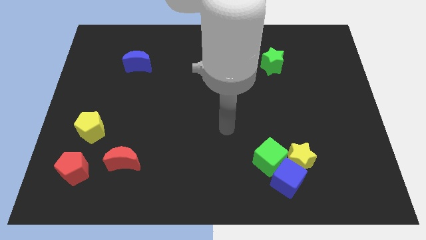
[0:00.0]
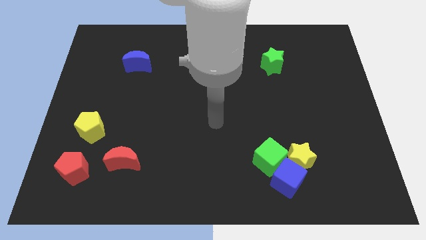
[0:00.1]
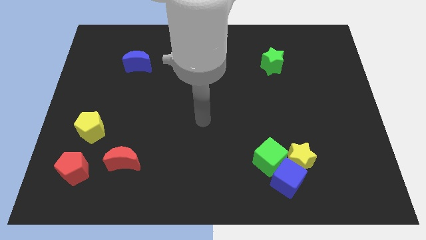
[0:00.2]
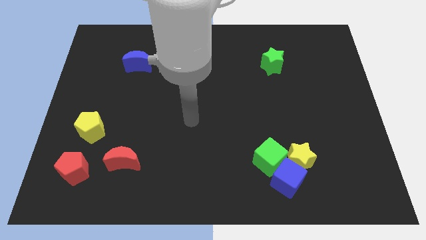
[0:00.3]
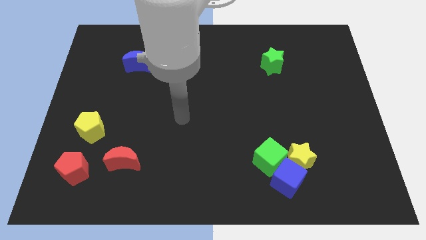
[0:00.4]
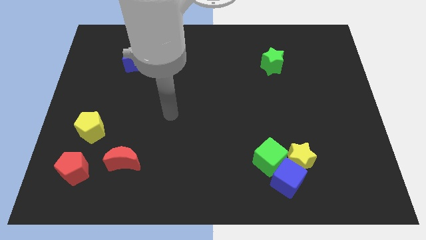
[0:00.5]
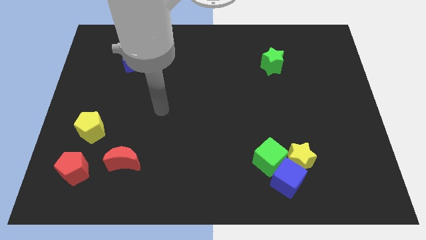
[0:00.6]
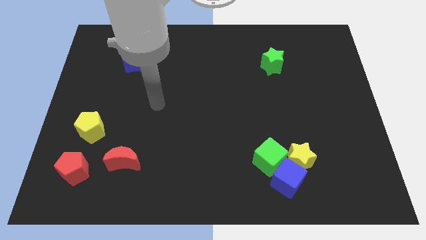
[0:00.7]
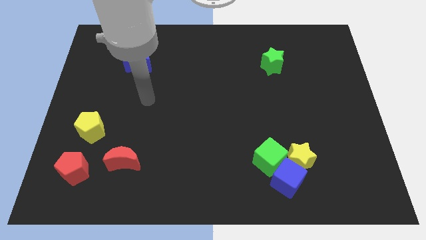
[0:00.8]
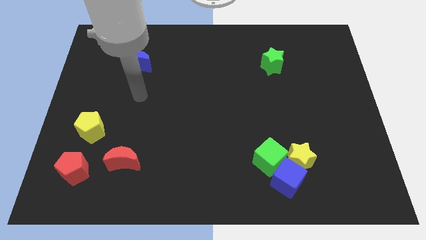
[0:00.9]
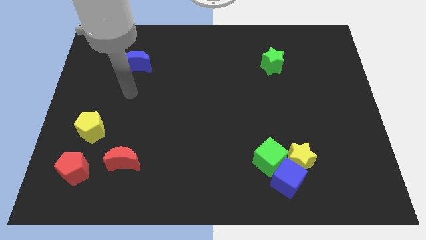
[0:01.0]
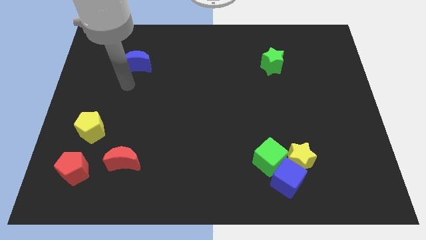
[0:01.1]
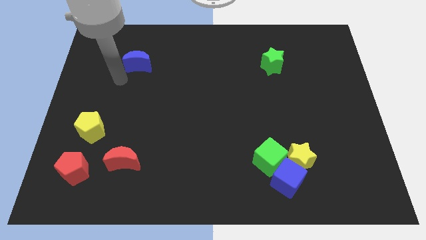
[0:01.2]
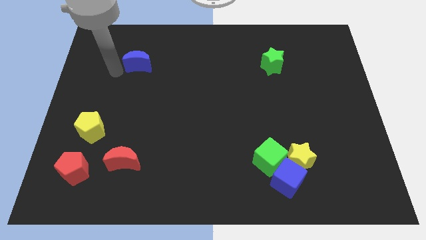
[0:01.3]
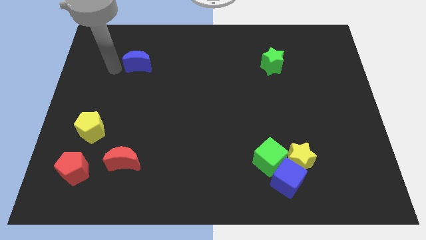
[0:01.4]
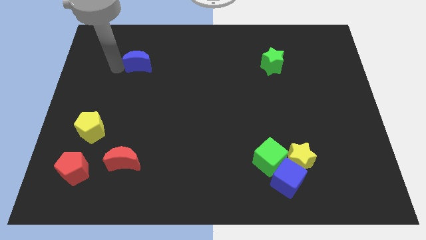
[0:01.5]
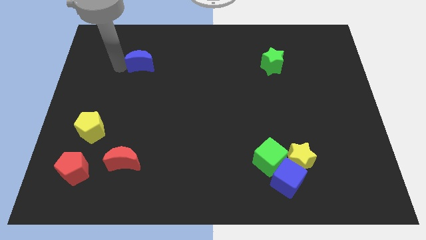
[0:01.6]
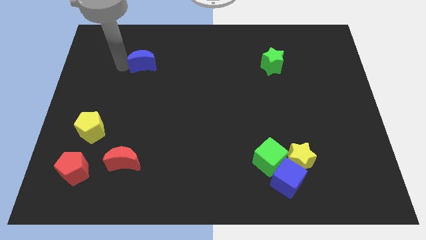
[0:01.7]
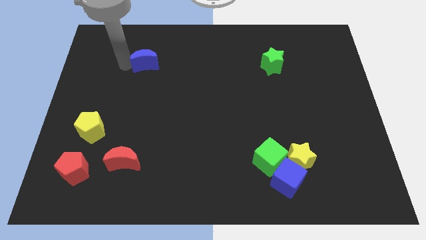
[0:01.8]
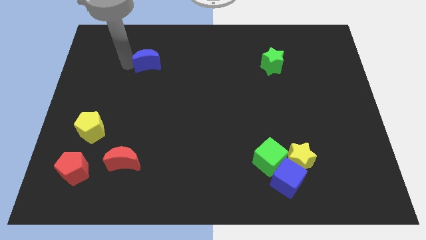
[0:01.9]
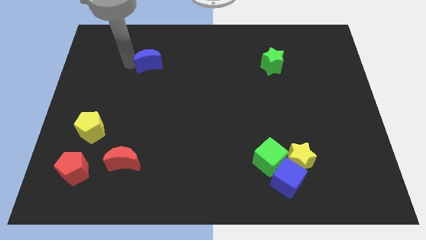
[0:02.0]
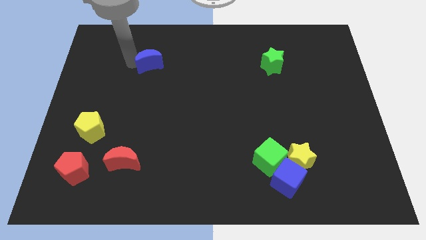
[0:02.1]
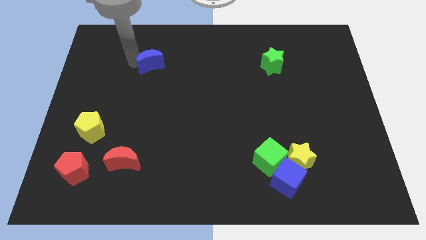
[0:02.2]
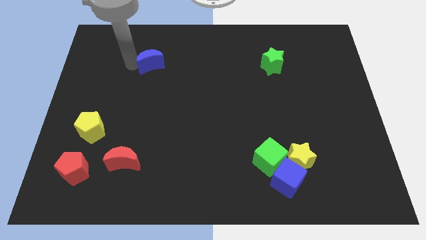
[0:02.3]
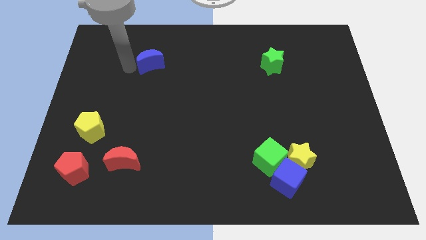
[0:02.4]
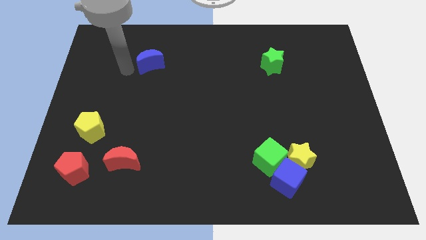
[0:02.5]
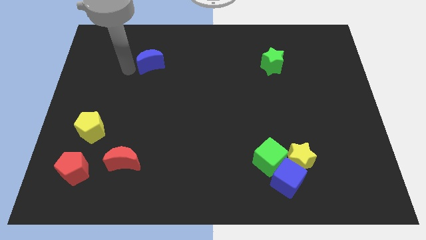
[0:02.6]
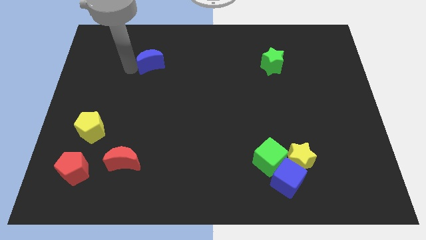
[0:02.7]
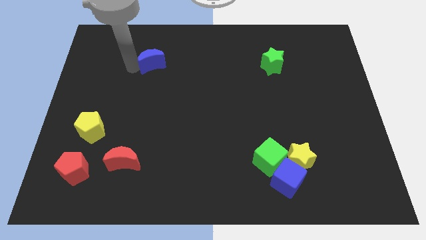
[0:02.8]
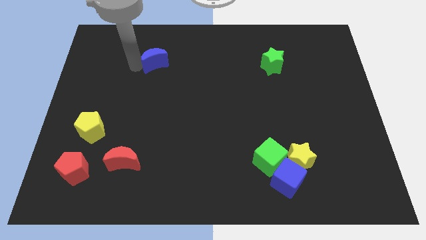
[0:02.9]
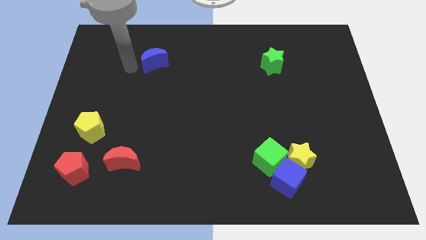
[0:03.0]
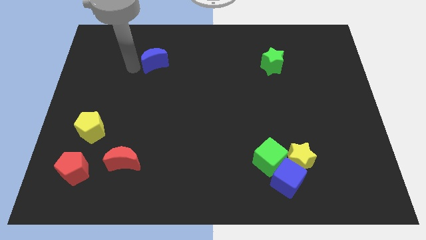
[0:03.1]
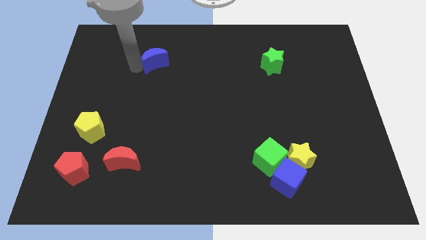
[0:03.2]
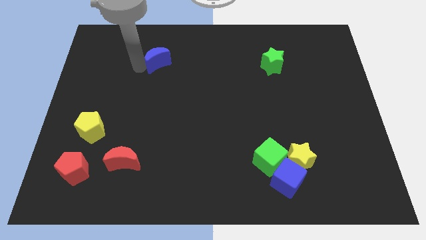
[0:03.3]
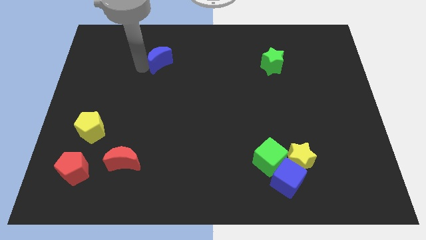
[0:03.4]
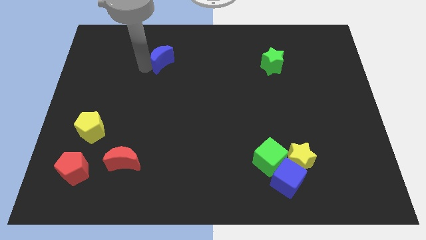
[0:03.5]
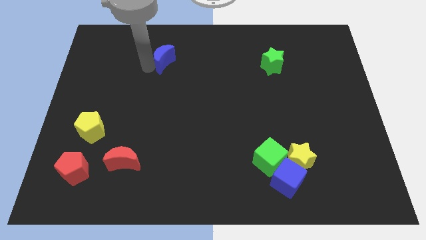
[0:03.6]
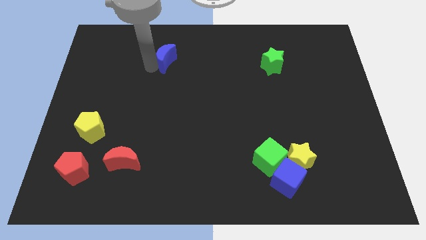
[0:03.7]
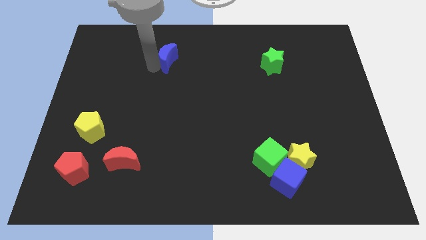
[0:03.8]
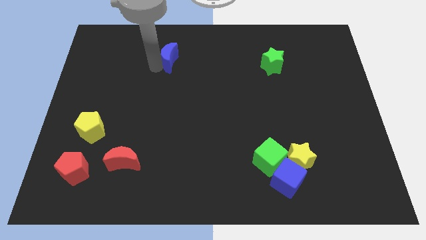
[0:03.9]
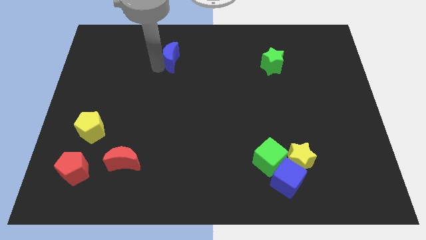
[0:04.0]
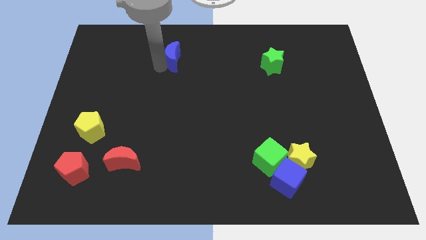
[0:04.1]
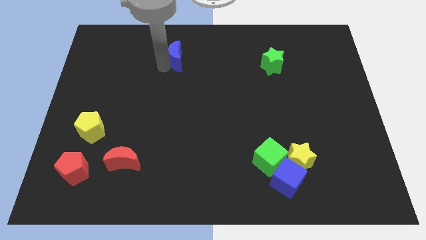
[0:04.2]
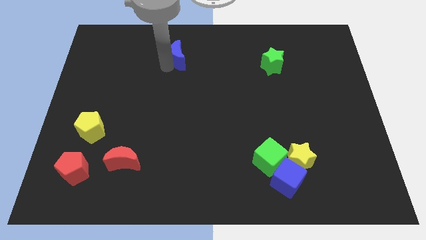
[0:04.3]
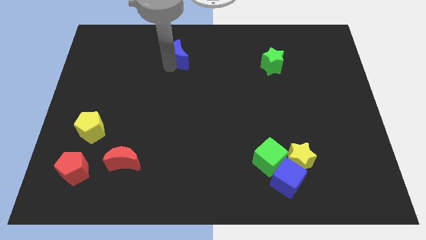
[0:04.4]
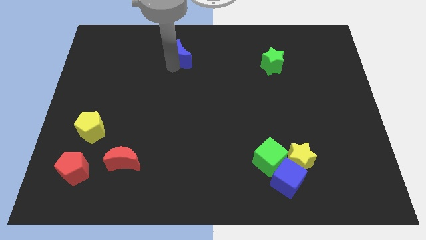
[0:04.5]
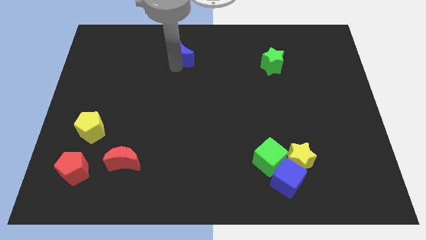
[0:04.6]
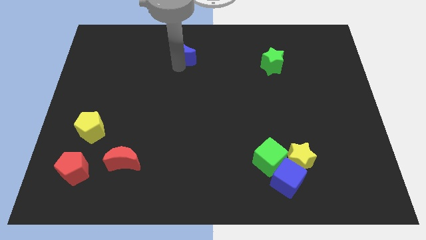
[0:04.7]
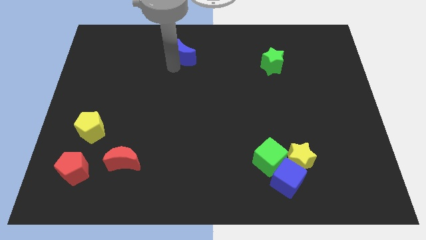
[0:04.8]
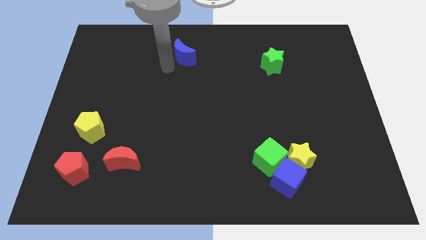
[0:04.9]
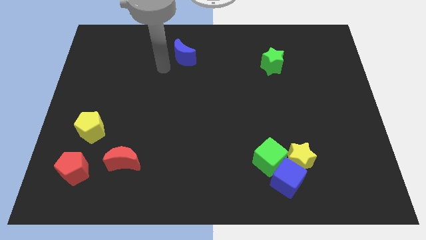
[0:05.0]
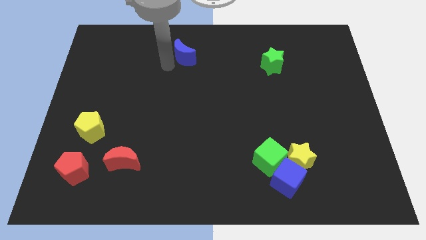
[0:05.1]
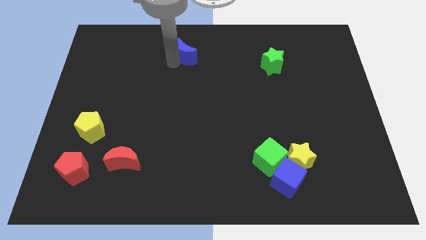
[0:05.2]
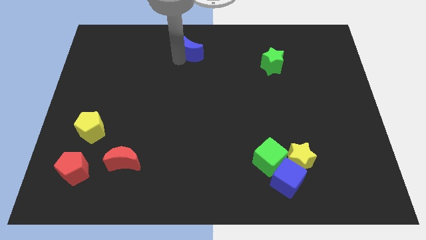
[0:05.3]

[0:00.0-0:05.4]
move the blue moon to the towards your base

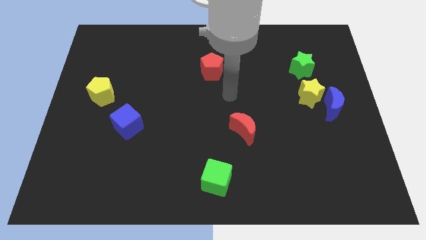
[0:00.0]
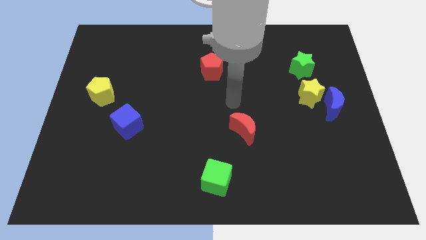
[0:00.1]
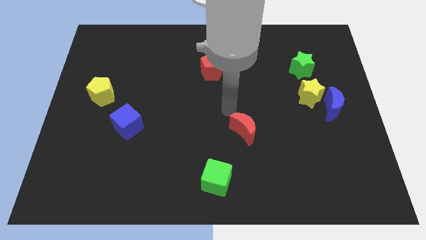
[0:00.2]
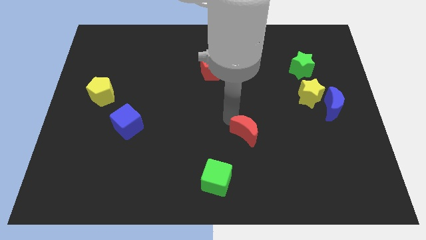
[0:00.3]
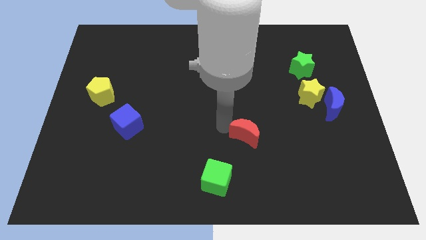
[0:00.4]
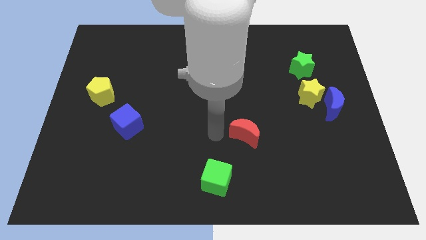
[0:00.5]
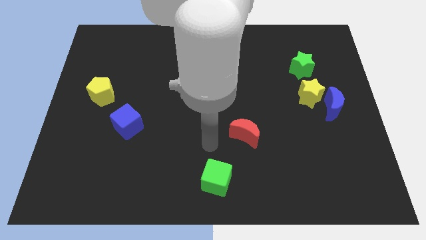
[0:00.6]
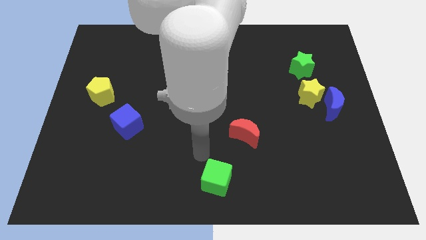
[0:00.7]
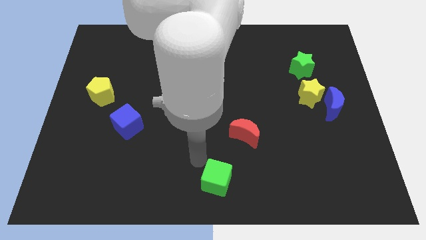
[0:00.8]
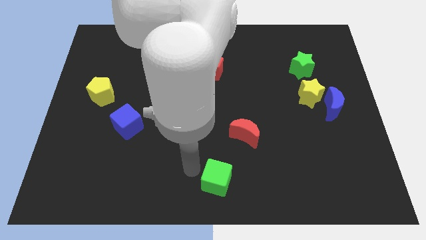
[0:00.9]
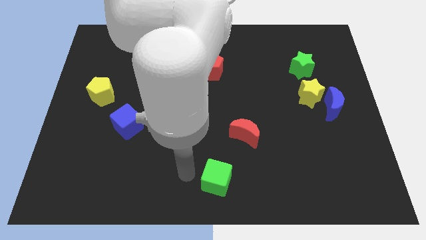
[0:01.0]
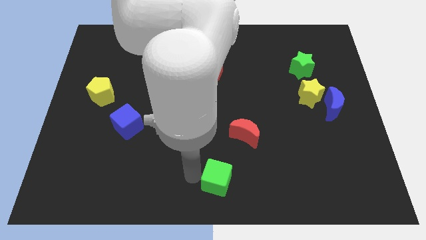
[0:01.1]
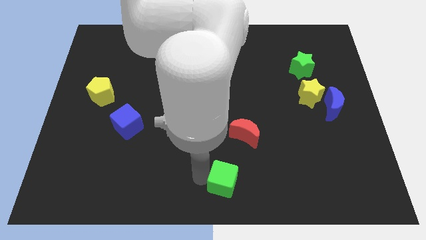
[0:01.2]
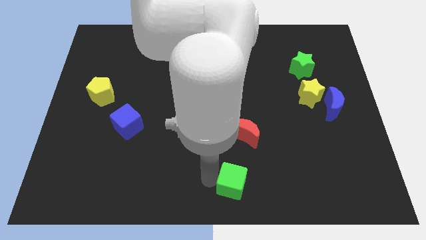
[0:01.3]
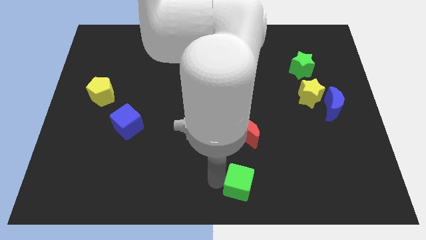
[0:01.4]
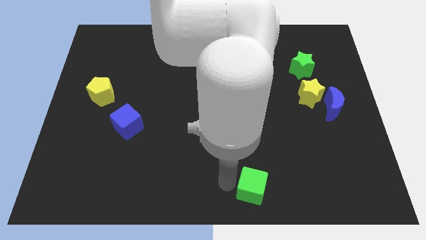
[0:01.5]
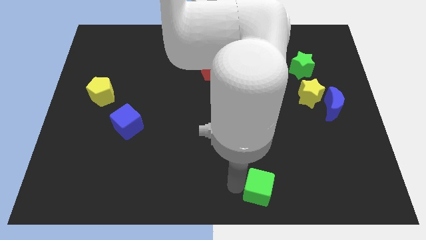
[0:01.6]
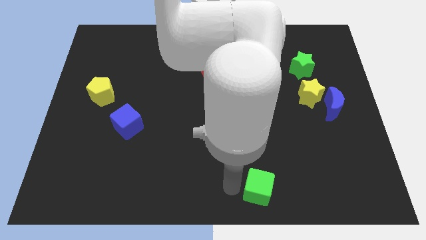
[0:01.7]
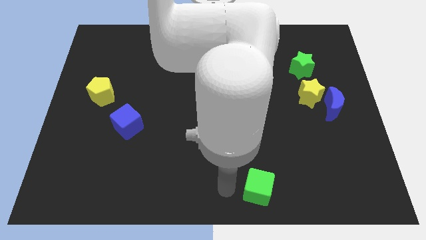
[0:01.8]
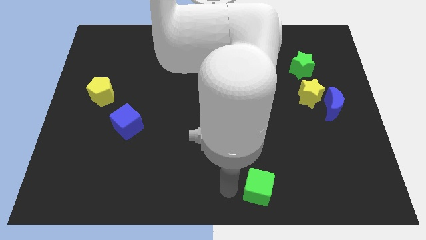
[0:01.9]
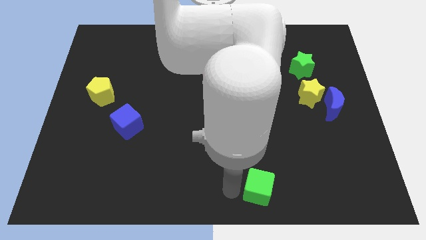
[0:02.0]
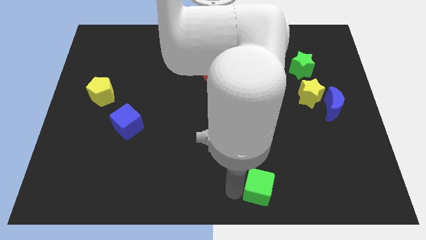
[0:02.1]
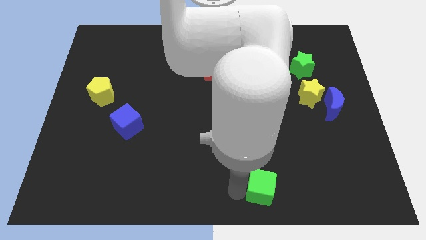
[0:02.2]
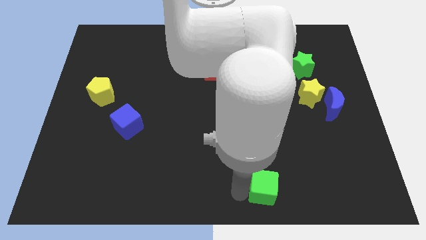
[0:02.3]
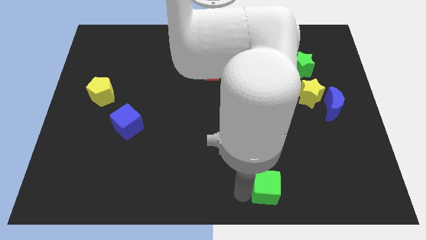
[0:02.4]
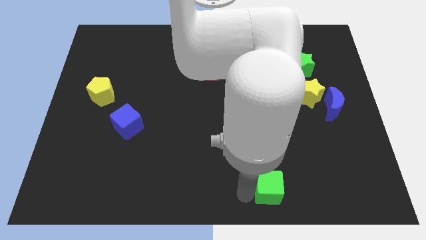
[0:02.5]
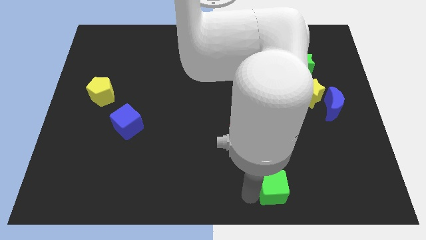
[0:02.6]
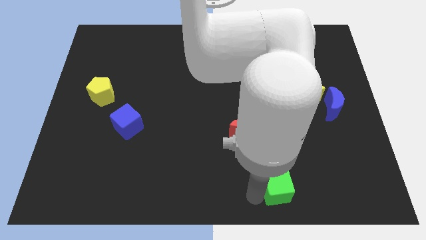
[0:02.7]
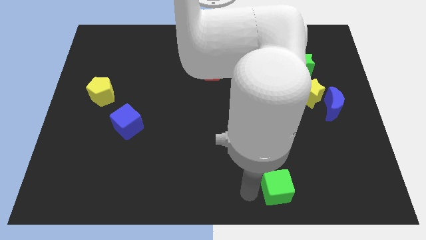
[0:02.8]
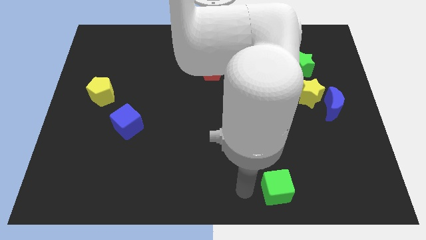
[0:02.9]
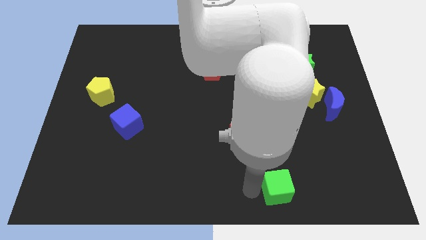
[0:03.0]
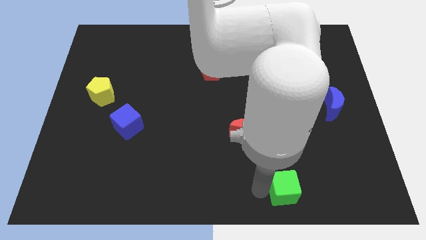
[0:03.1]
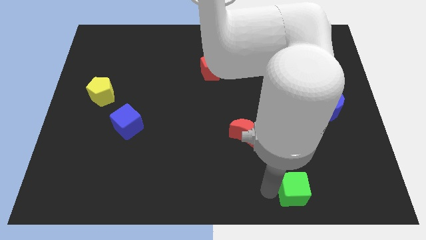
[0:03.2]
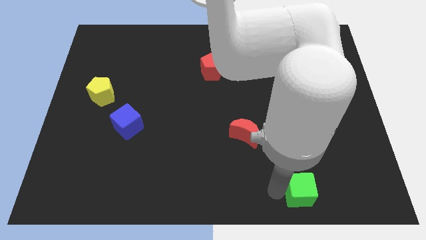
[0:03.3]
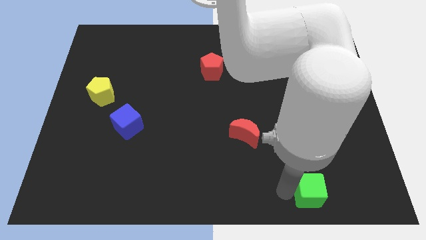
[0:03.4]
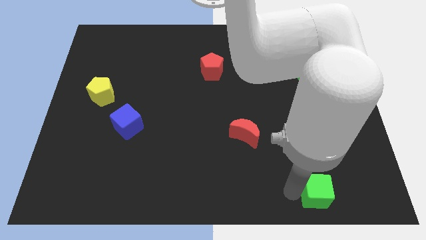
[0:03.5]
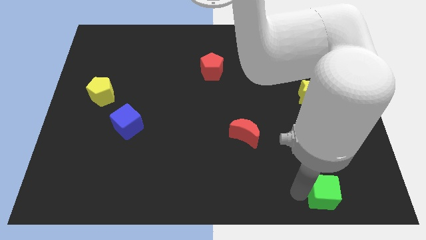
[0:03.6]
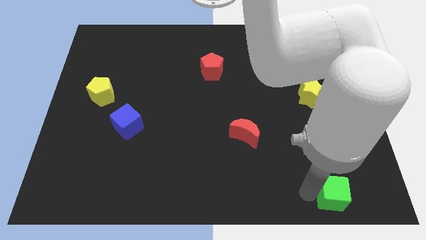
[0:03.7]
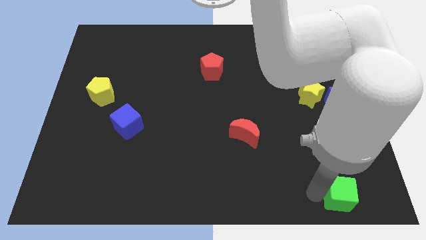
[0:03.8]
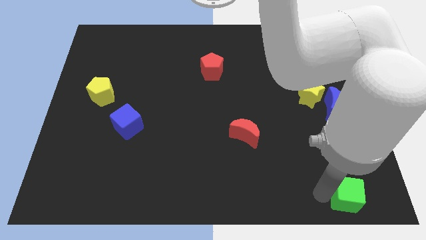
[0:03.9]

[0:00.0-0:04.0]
push the green cube to the bottom right corner
